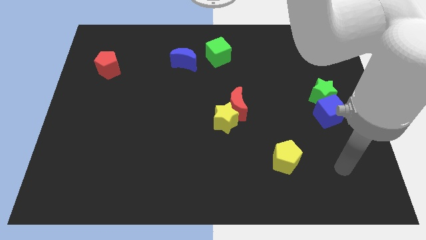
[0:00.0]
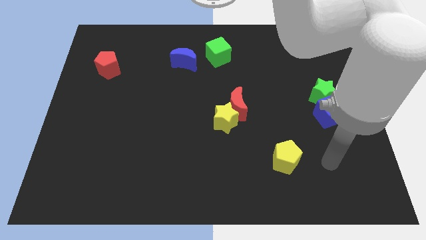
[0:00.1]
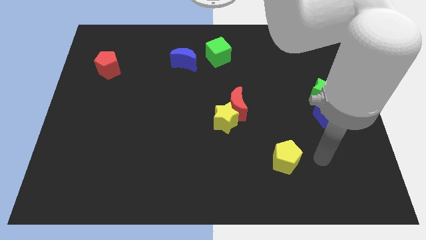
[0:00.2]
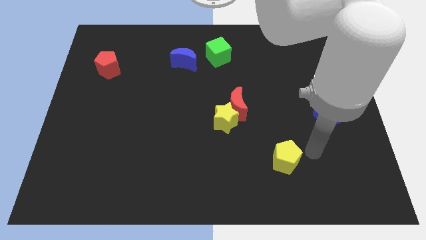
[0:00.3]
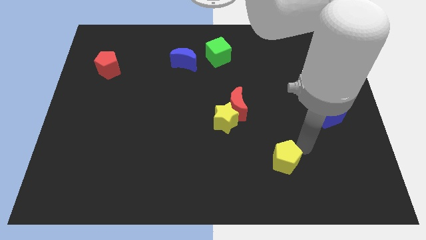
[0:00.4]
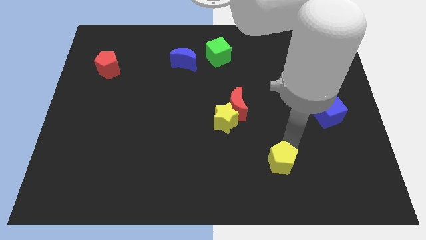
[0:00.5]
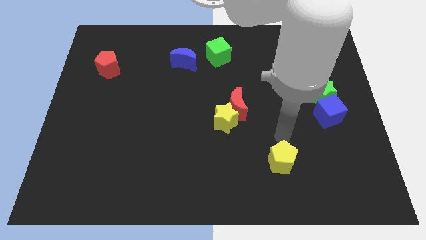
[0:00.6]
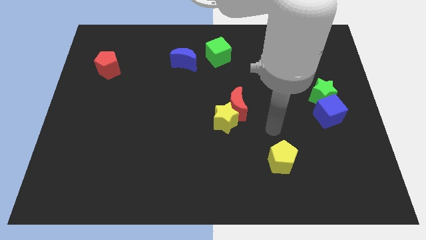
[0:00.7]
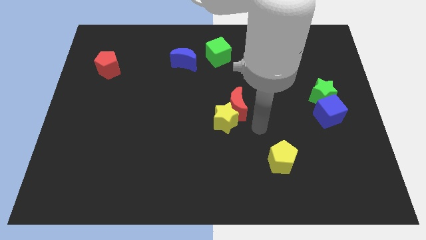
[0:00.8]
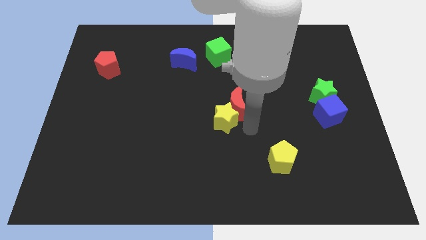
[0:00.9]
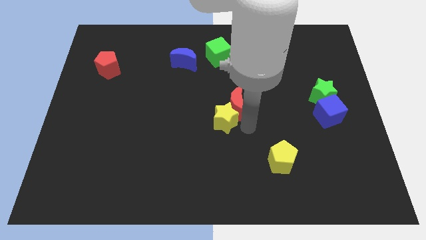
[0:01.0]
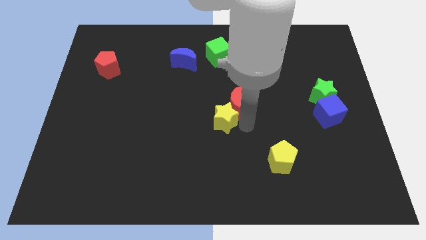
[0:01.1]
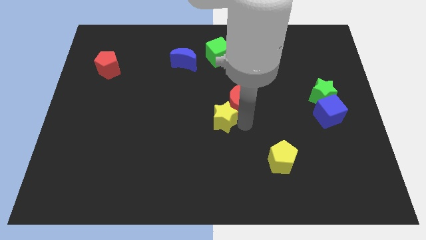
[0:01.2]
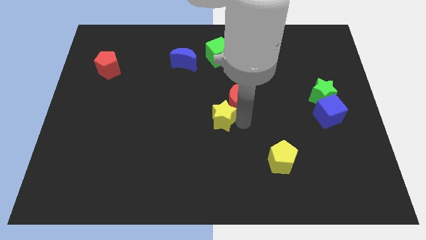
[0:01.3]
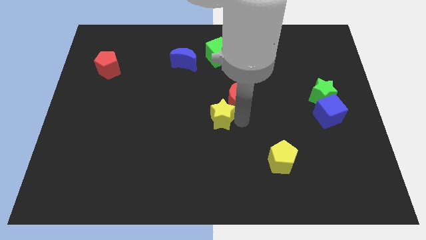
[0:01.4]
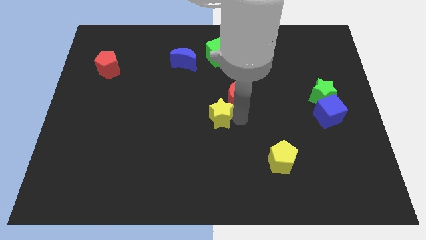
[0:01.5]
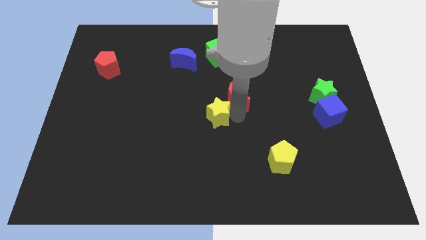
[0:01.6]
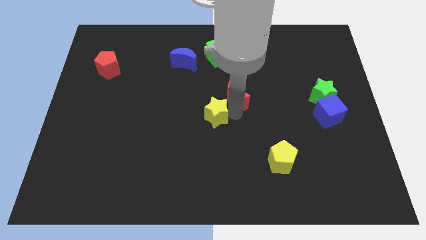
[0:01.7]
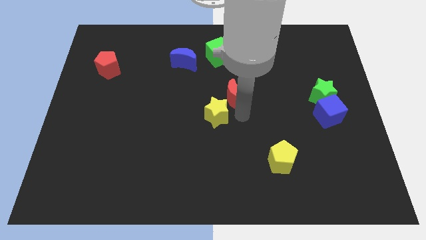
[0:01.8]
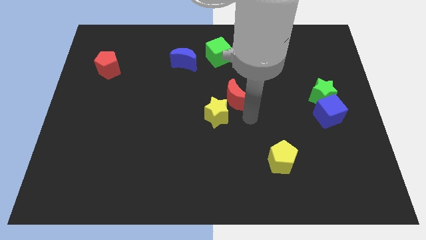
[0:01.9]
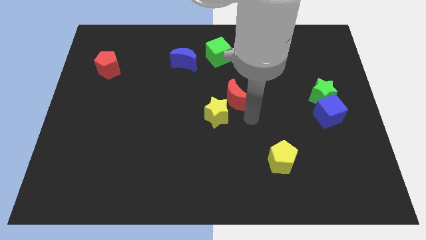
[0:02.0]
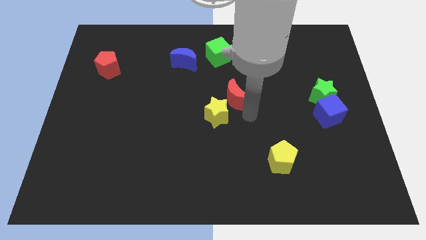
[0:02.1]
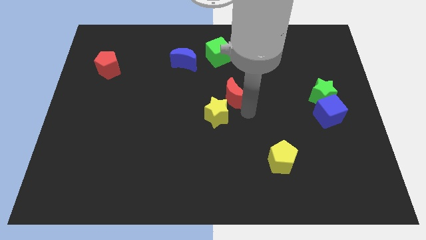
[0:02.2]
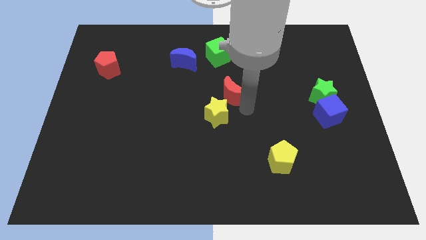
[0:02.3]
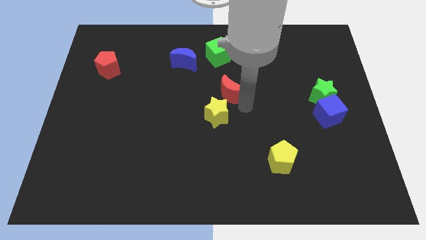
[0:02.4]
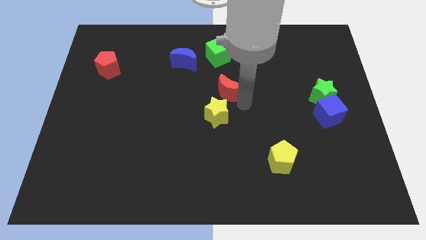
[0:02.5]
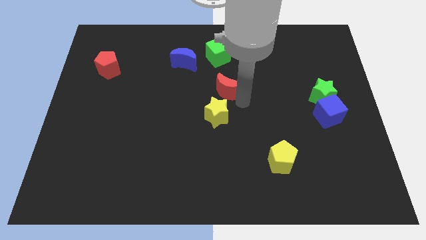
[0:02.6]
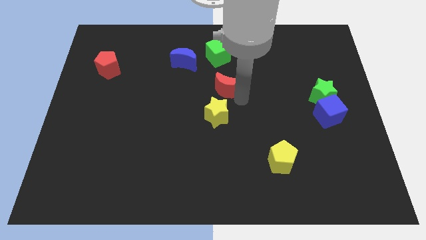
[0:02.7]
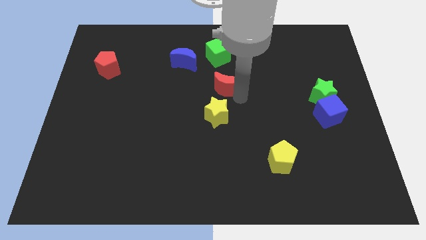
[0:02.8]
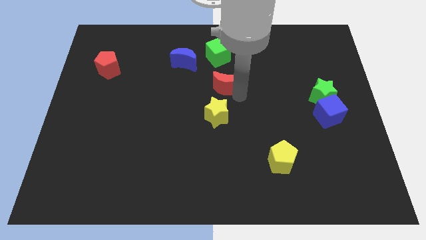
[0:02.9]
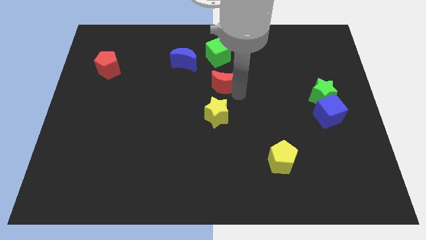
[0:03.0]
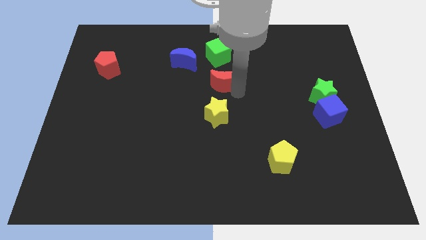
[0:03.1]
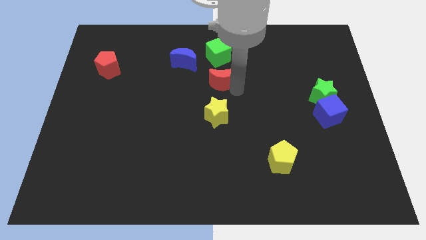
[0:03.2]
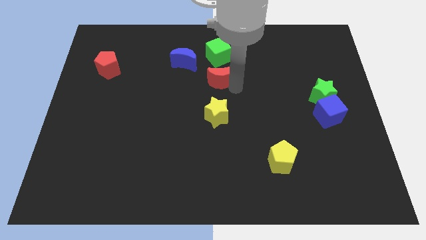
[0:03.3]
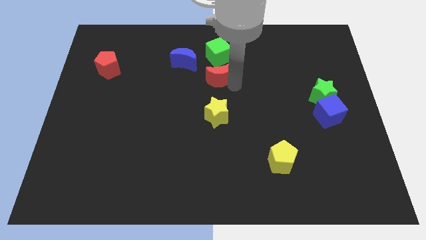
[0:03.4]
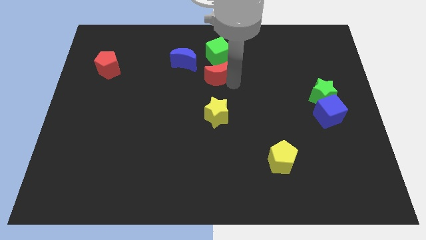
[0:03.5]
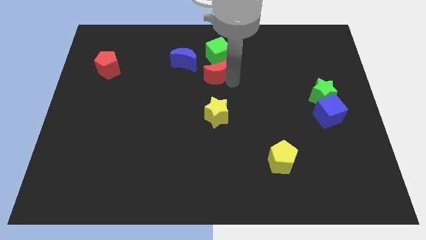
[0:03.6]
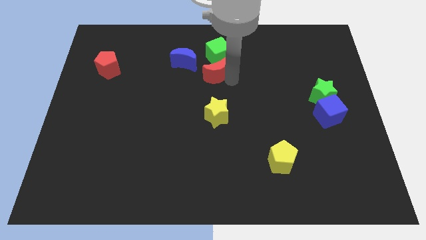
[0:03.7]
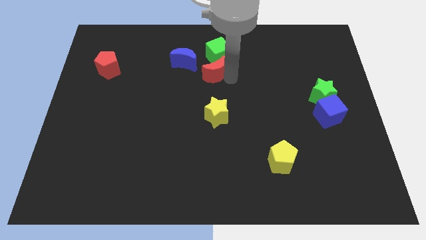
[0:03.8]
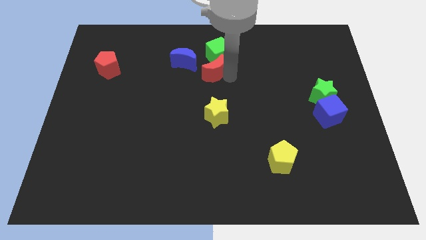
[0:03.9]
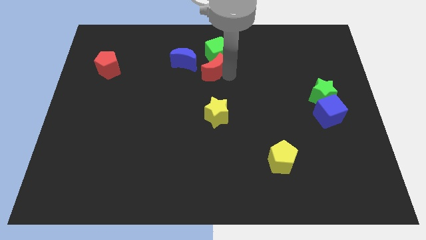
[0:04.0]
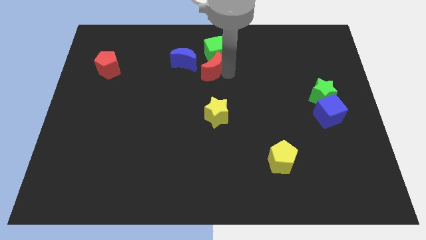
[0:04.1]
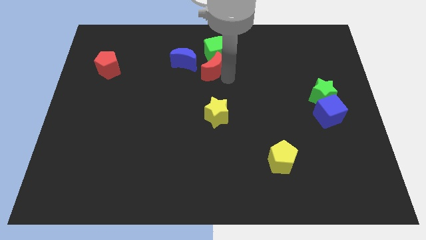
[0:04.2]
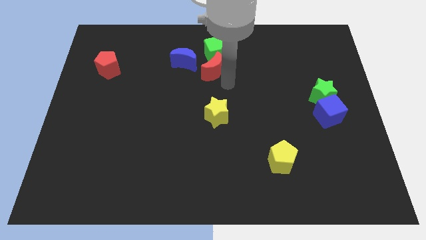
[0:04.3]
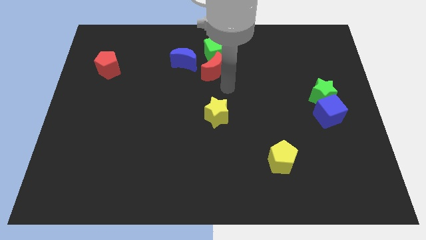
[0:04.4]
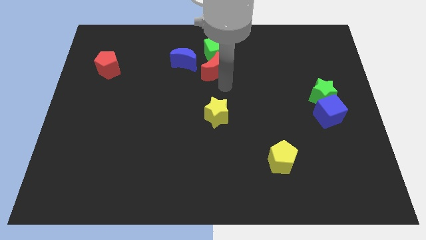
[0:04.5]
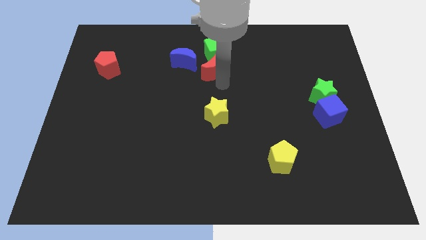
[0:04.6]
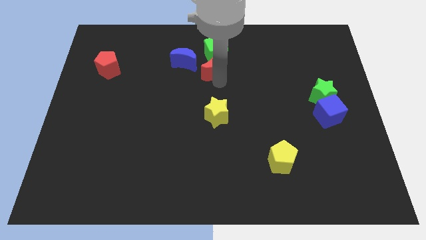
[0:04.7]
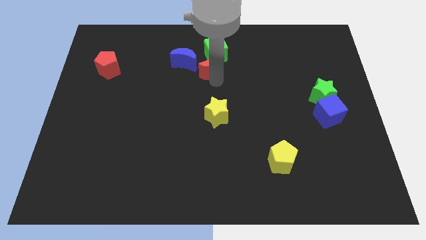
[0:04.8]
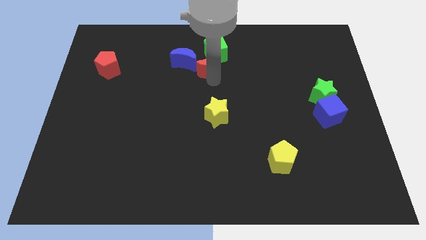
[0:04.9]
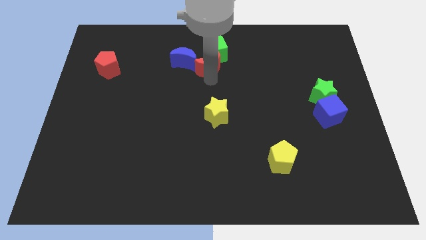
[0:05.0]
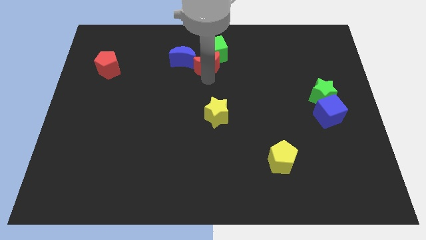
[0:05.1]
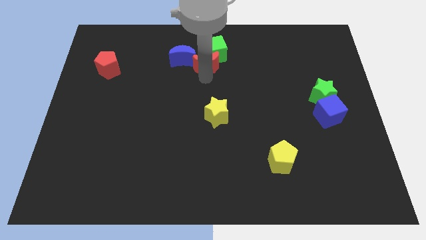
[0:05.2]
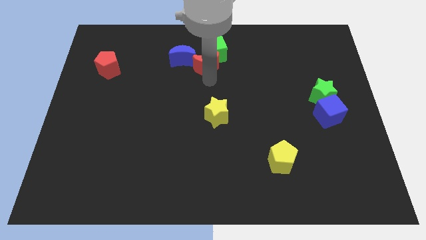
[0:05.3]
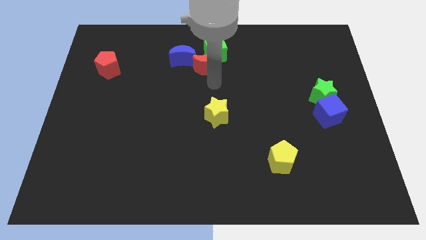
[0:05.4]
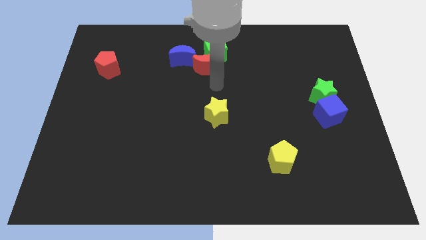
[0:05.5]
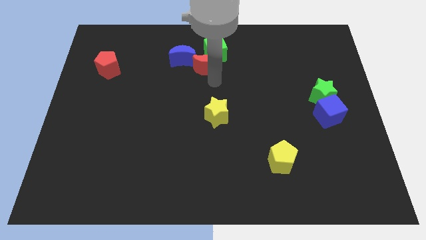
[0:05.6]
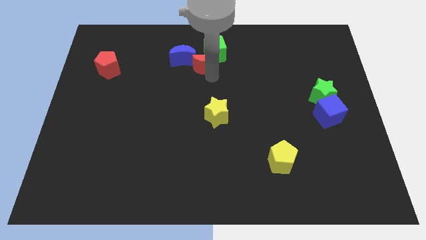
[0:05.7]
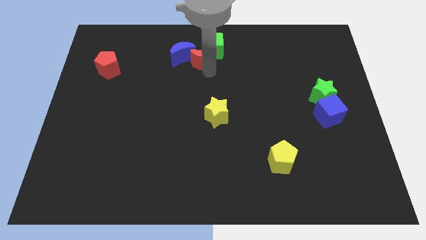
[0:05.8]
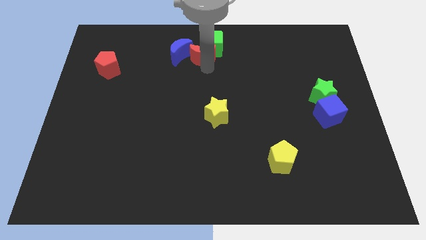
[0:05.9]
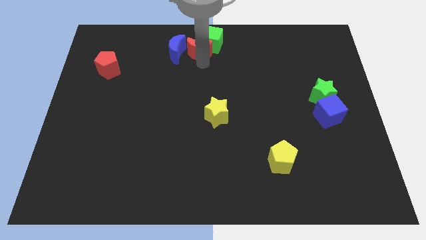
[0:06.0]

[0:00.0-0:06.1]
move the red moon to the top side

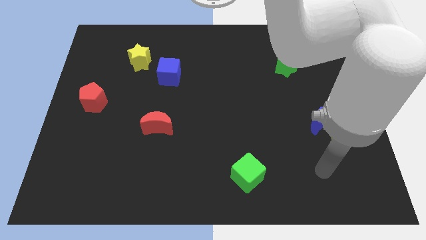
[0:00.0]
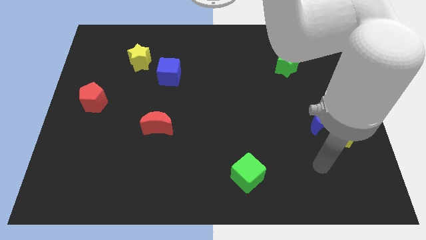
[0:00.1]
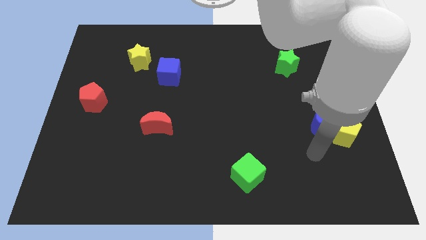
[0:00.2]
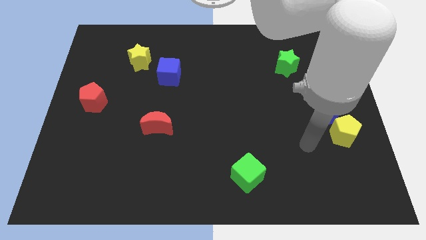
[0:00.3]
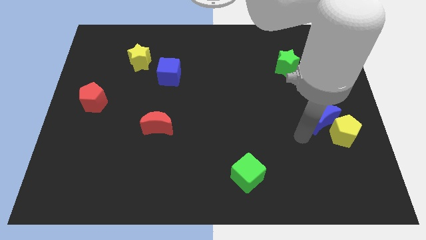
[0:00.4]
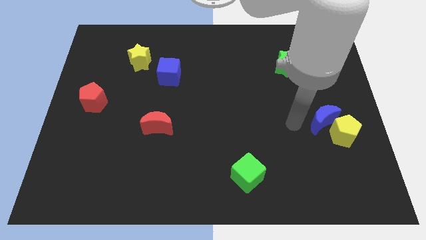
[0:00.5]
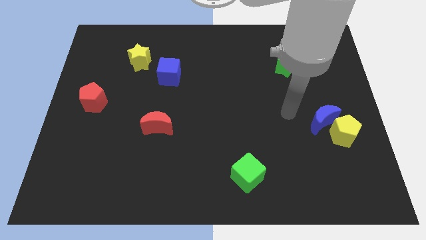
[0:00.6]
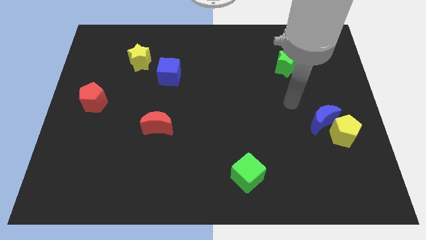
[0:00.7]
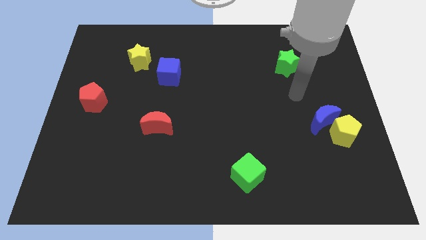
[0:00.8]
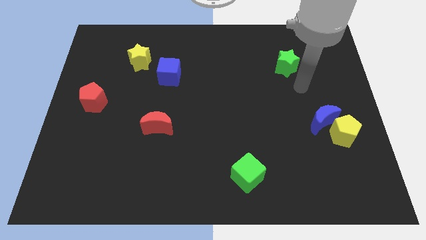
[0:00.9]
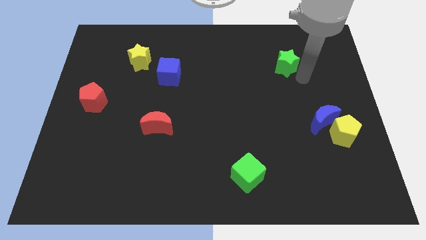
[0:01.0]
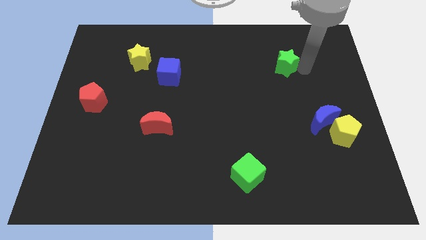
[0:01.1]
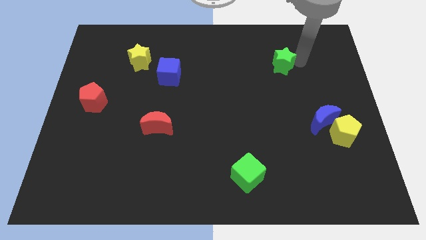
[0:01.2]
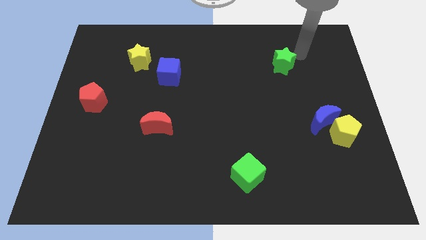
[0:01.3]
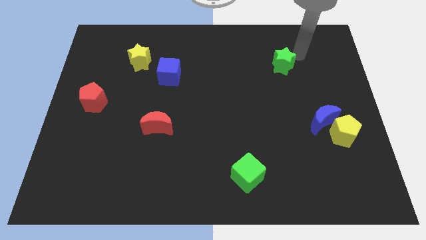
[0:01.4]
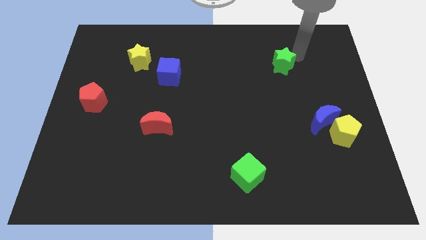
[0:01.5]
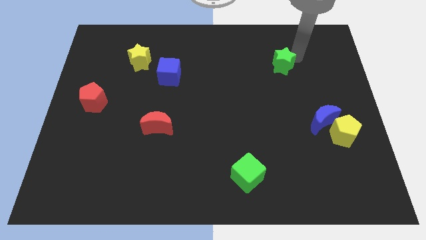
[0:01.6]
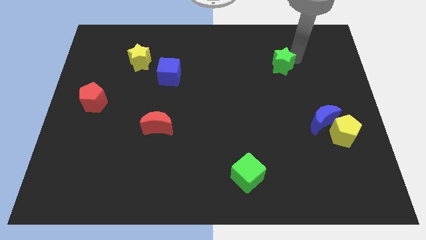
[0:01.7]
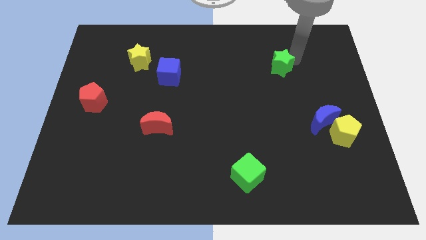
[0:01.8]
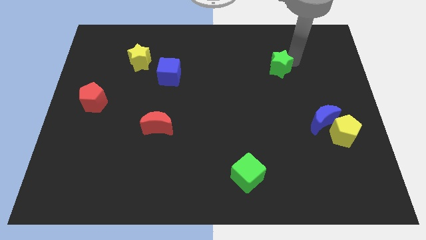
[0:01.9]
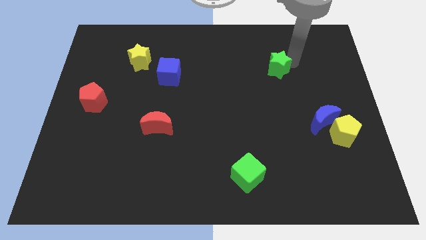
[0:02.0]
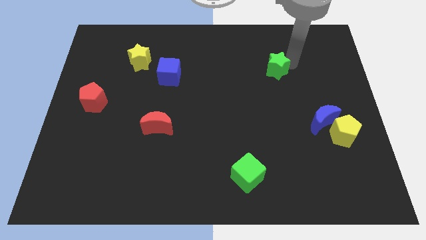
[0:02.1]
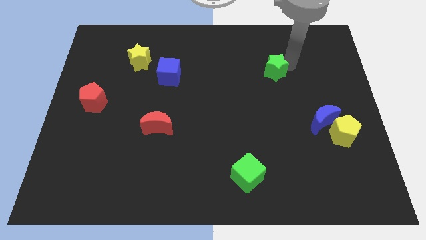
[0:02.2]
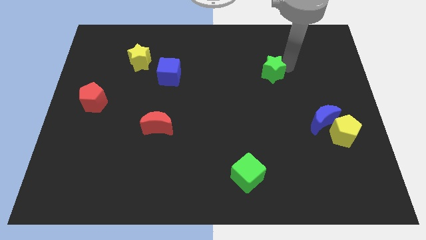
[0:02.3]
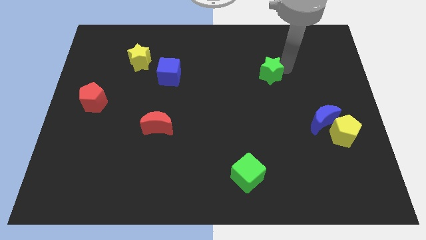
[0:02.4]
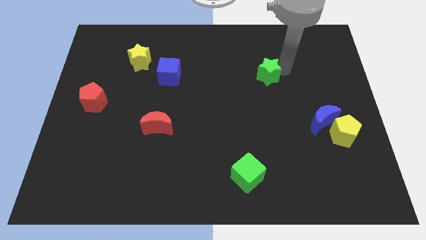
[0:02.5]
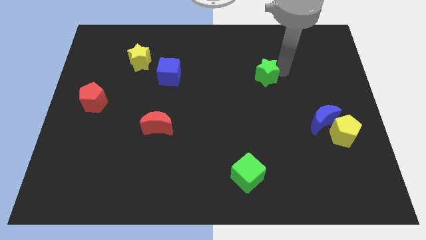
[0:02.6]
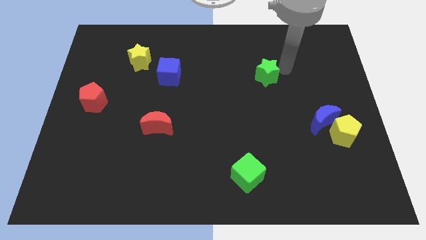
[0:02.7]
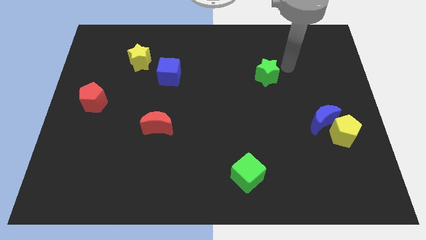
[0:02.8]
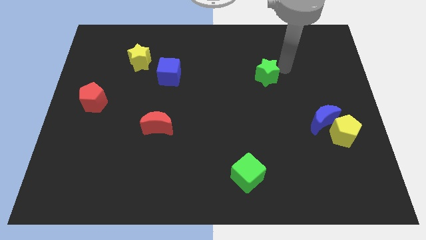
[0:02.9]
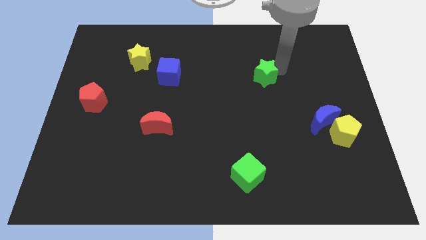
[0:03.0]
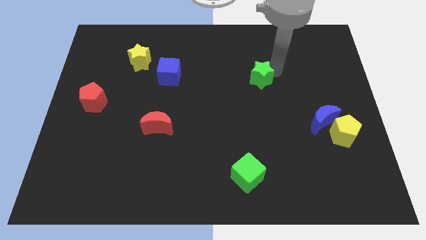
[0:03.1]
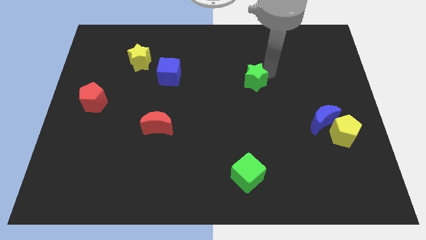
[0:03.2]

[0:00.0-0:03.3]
slide the green star to the middle of the board
